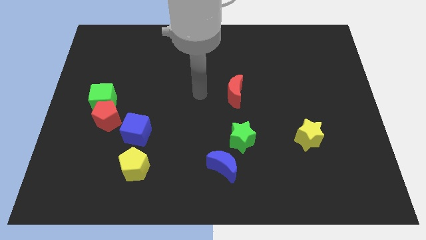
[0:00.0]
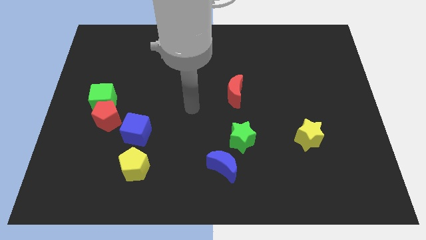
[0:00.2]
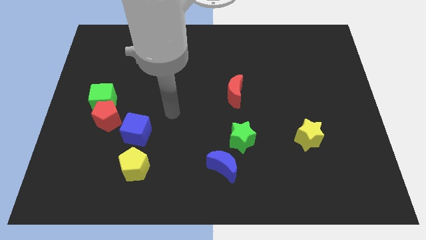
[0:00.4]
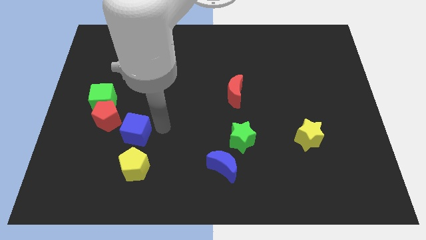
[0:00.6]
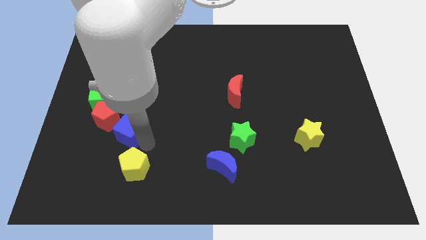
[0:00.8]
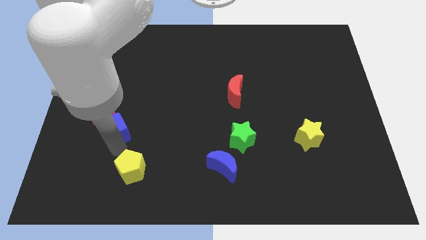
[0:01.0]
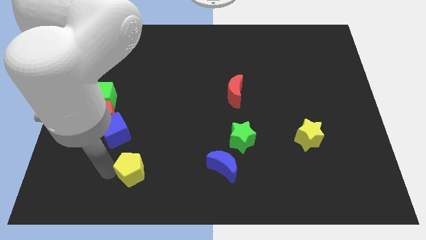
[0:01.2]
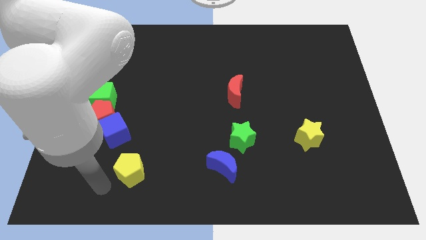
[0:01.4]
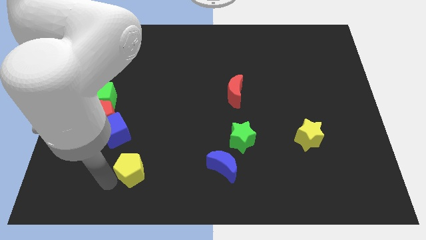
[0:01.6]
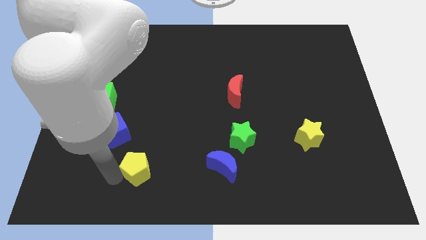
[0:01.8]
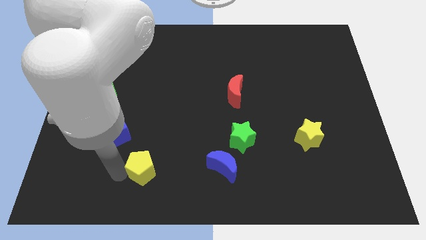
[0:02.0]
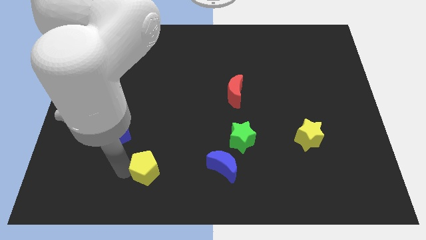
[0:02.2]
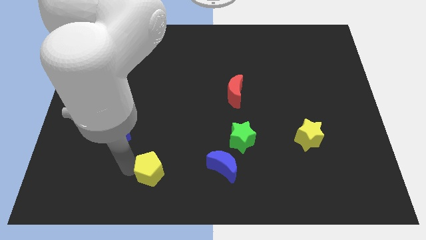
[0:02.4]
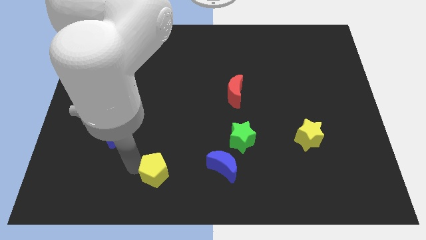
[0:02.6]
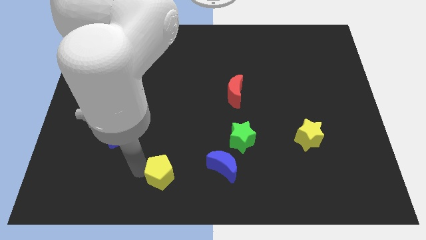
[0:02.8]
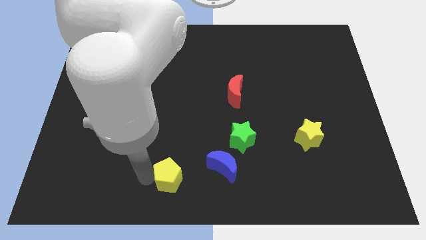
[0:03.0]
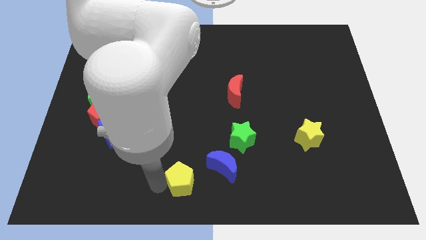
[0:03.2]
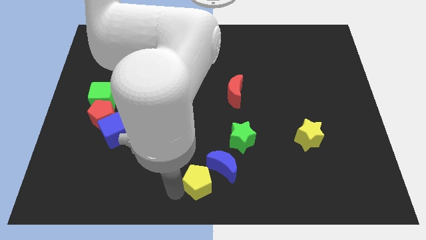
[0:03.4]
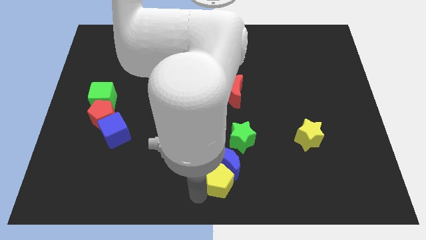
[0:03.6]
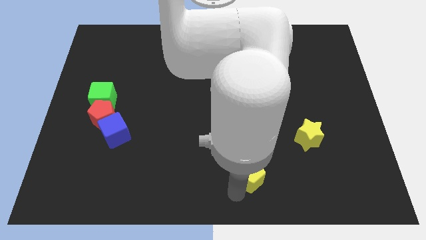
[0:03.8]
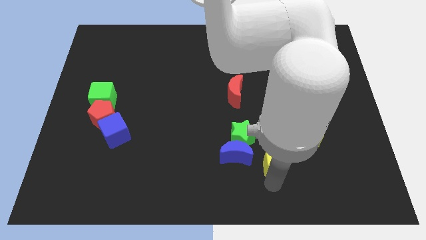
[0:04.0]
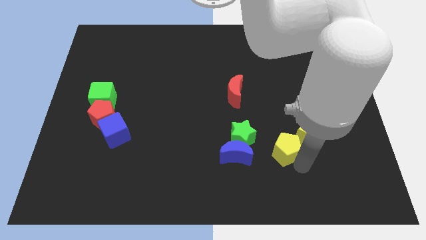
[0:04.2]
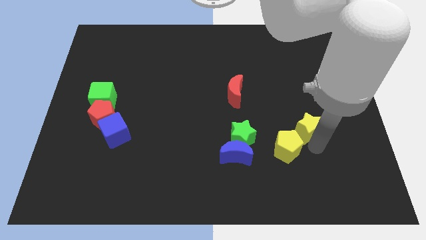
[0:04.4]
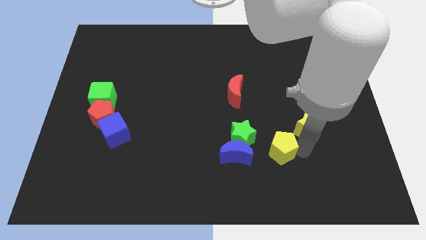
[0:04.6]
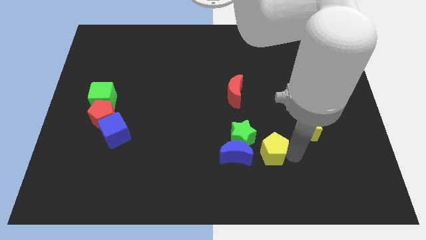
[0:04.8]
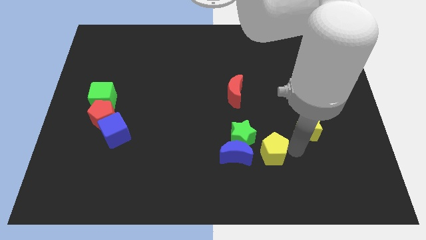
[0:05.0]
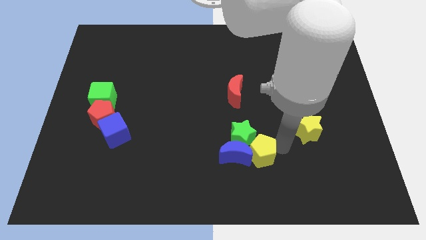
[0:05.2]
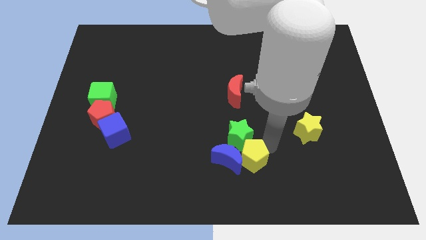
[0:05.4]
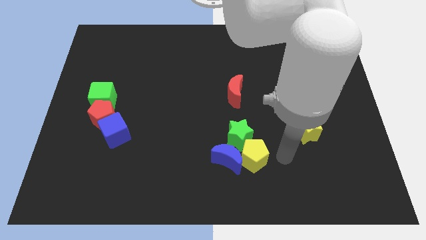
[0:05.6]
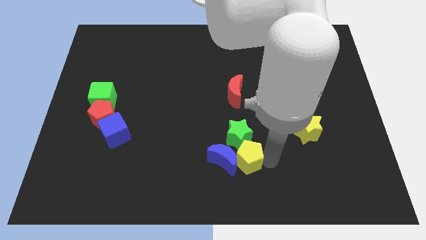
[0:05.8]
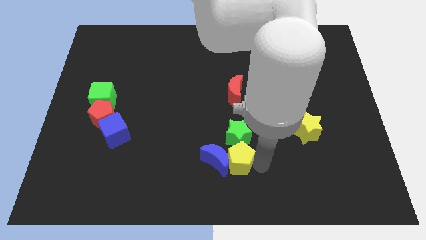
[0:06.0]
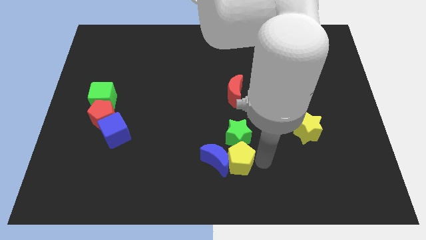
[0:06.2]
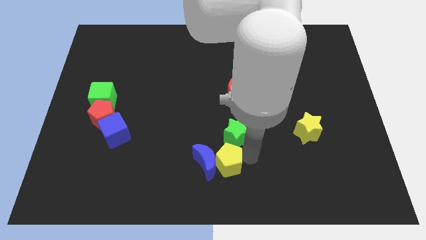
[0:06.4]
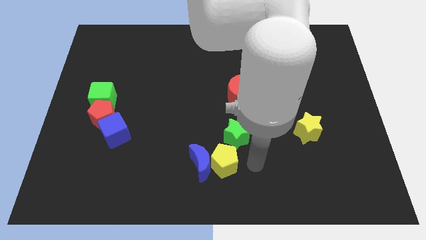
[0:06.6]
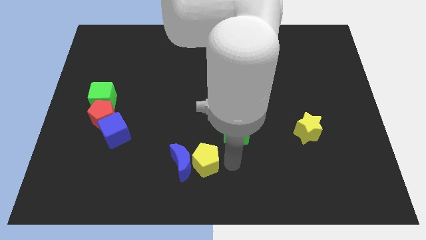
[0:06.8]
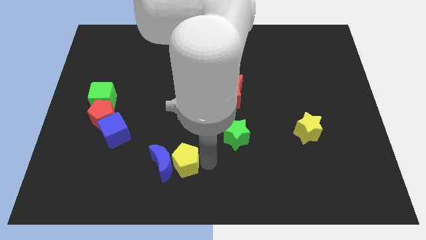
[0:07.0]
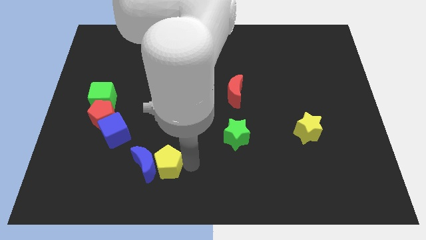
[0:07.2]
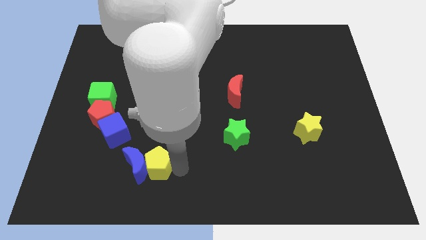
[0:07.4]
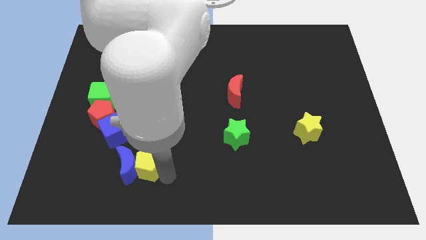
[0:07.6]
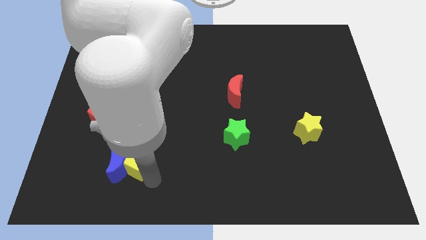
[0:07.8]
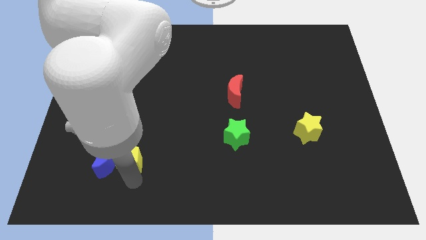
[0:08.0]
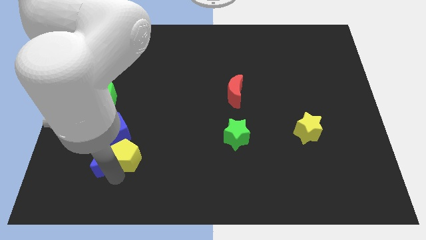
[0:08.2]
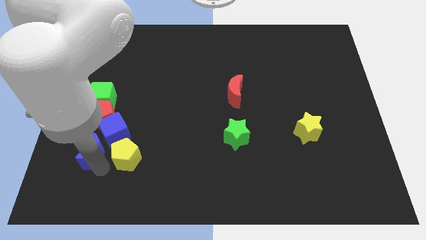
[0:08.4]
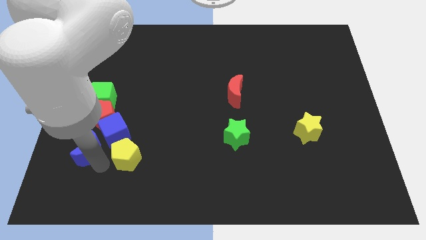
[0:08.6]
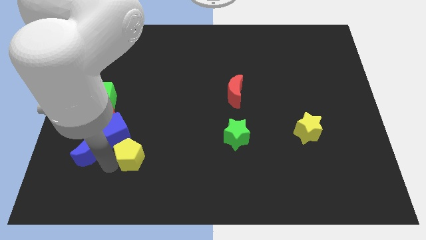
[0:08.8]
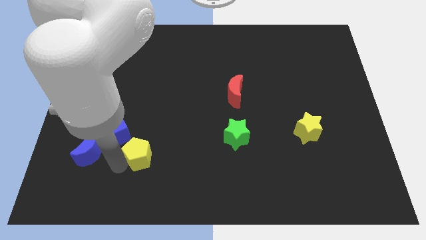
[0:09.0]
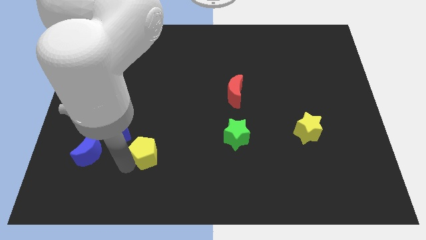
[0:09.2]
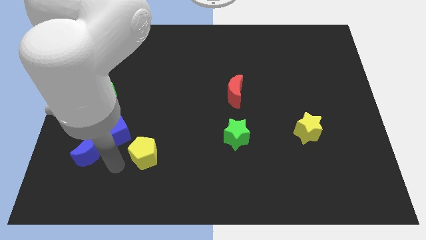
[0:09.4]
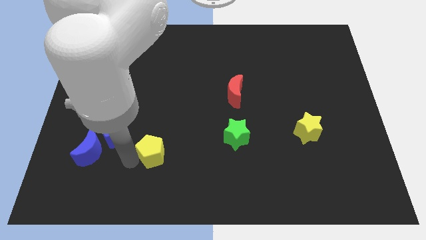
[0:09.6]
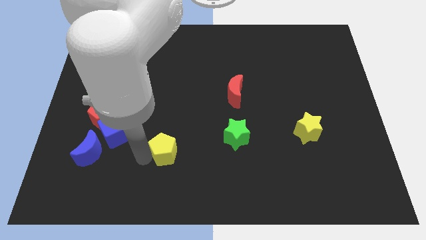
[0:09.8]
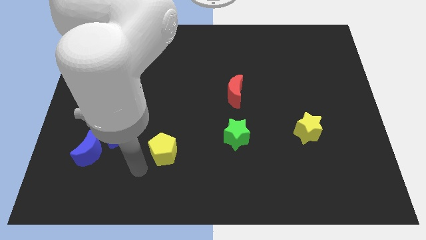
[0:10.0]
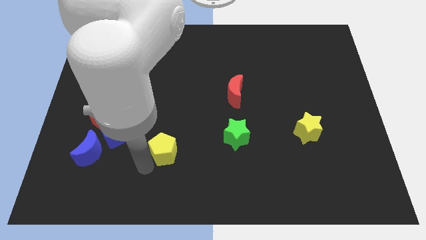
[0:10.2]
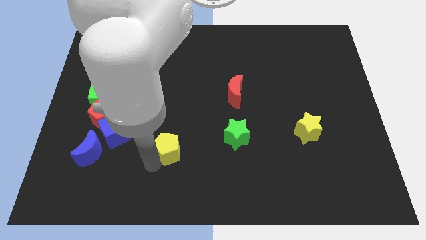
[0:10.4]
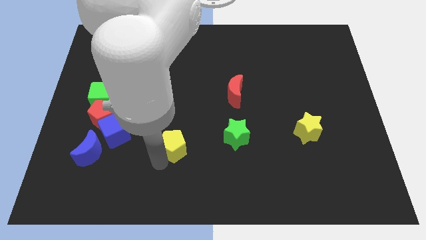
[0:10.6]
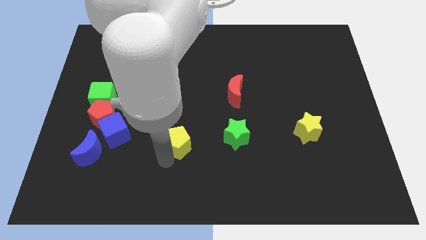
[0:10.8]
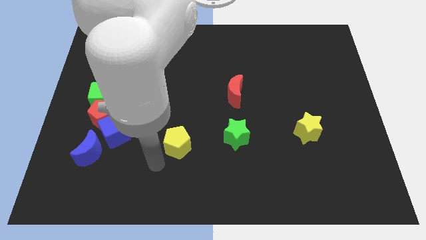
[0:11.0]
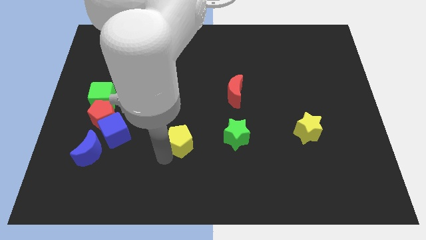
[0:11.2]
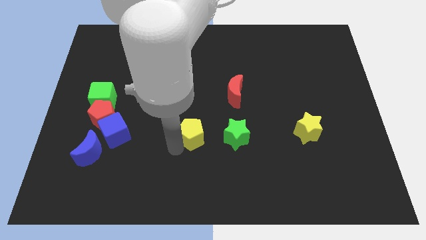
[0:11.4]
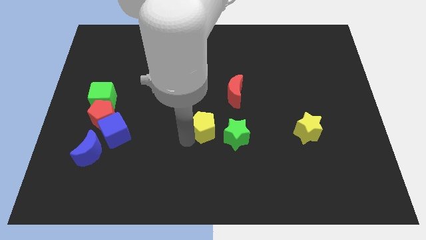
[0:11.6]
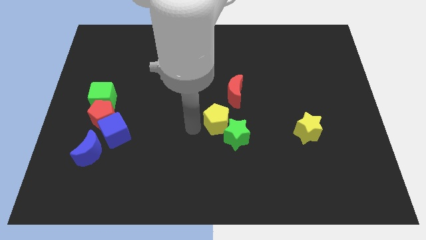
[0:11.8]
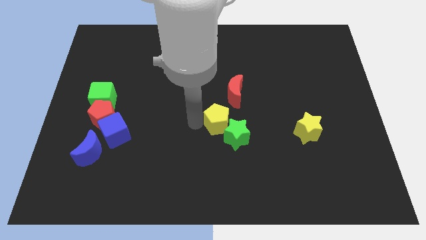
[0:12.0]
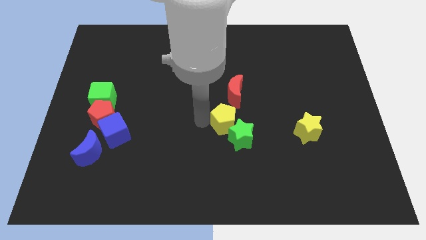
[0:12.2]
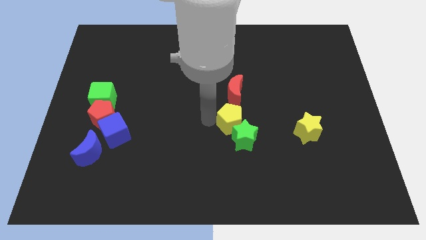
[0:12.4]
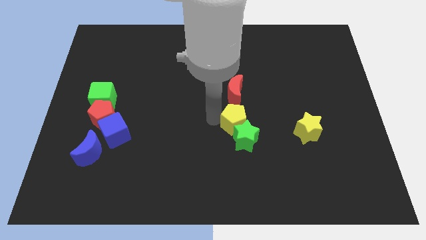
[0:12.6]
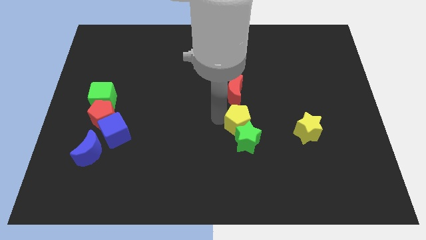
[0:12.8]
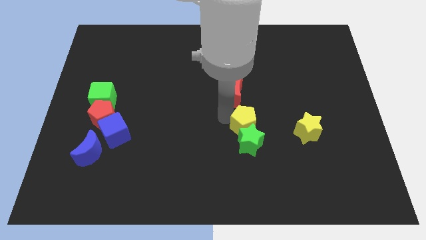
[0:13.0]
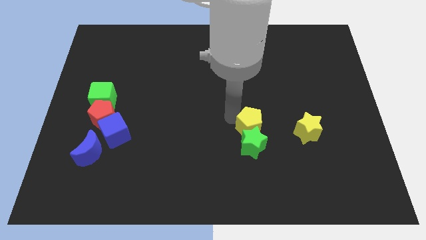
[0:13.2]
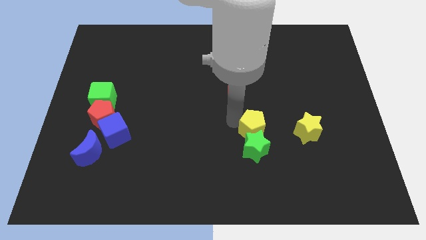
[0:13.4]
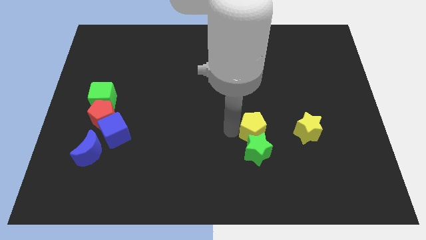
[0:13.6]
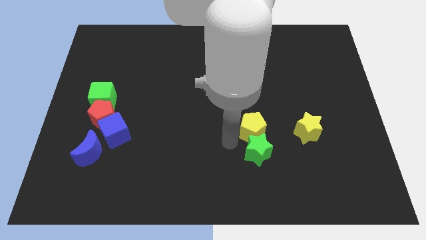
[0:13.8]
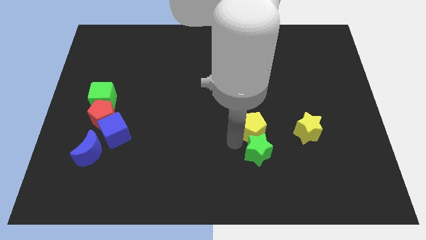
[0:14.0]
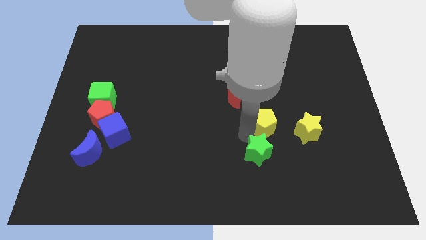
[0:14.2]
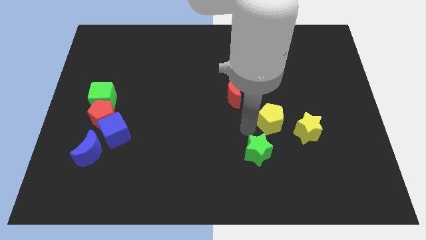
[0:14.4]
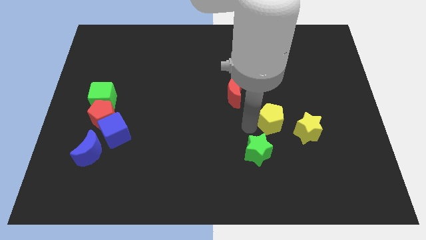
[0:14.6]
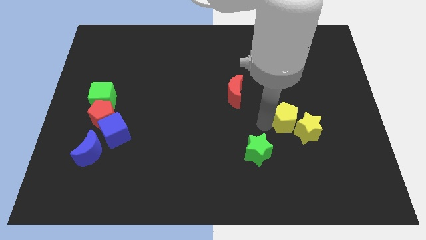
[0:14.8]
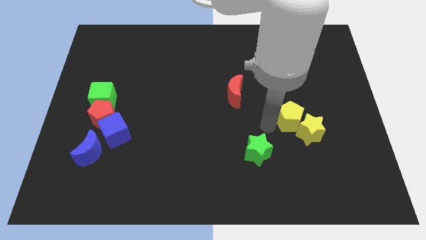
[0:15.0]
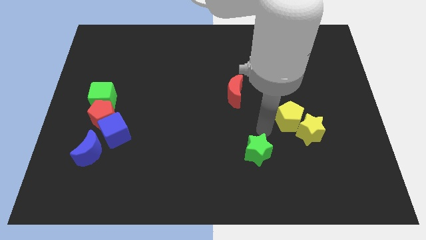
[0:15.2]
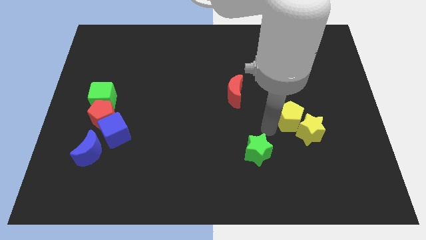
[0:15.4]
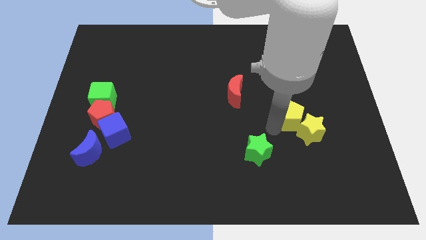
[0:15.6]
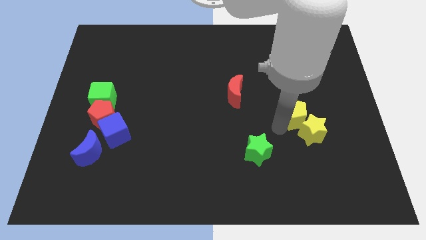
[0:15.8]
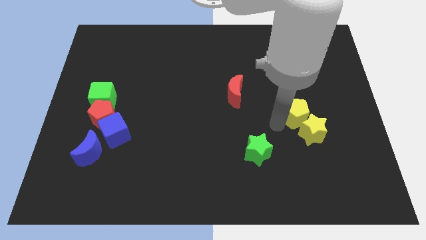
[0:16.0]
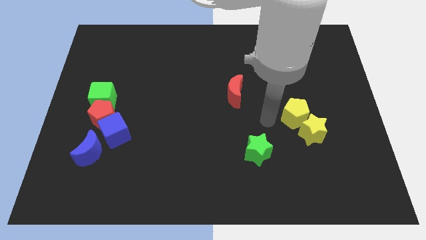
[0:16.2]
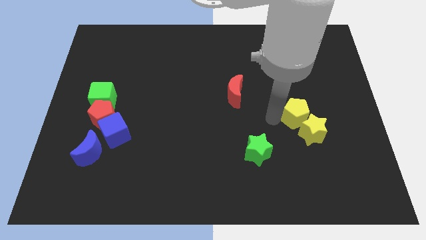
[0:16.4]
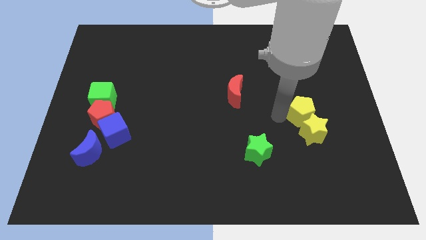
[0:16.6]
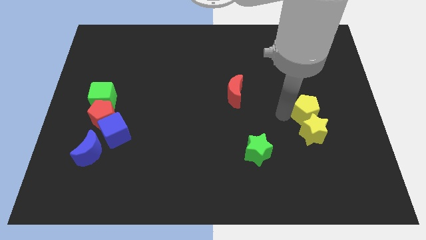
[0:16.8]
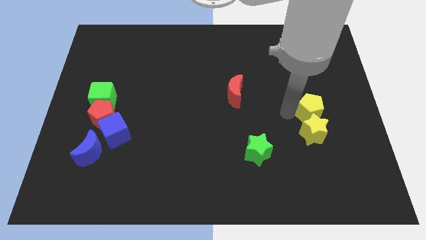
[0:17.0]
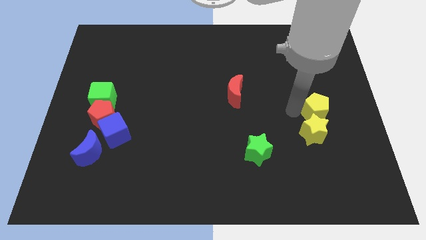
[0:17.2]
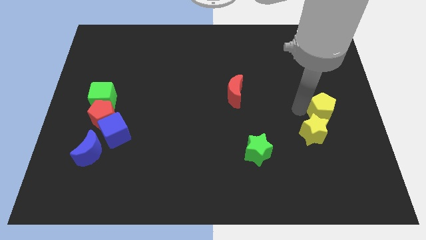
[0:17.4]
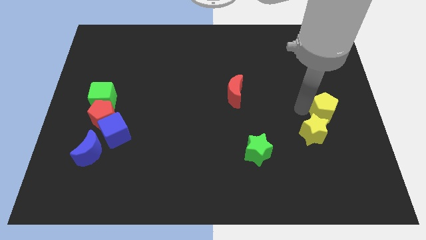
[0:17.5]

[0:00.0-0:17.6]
slide the yellow pentagon to the center right
